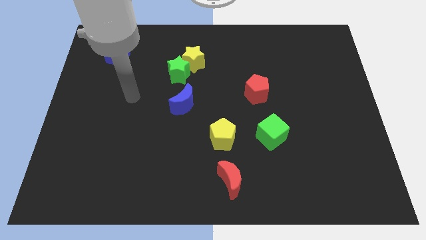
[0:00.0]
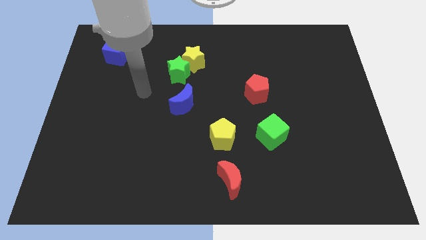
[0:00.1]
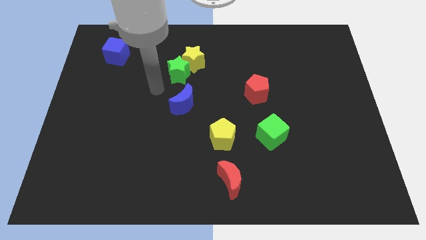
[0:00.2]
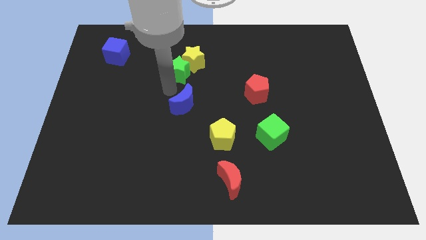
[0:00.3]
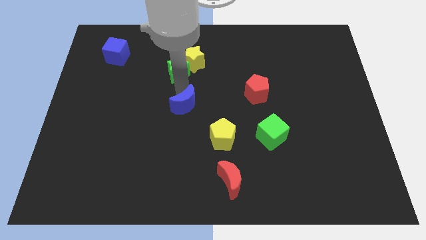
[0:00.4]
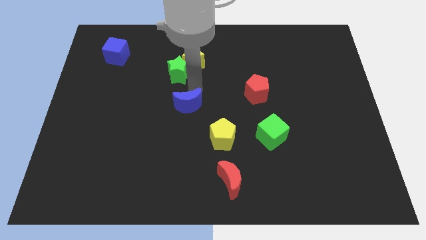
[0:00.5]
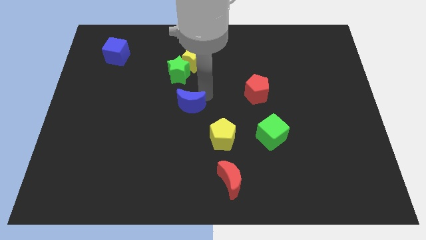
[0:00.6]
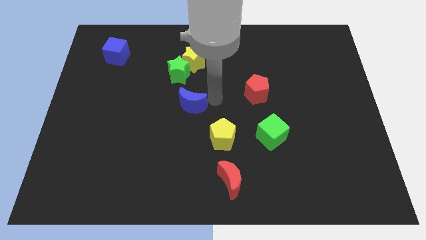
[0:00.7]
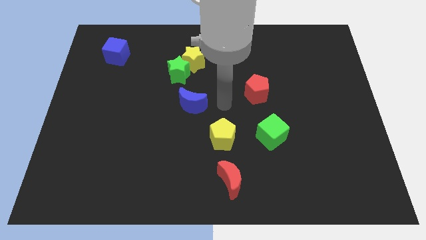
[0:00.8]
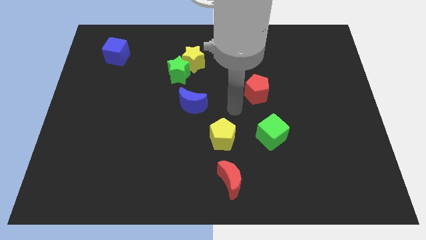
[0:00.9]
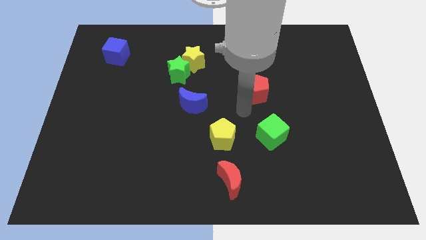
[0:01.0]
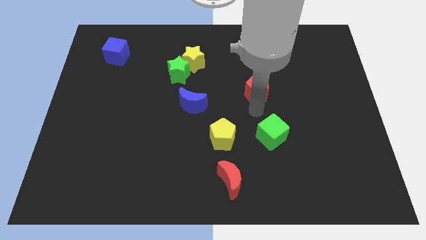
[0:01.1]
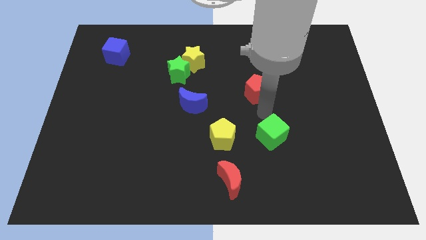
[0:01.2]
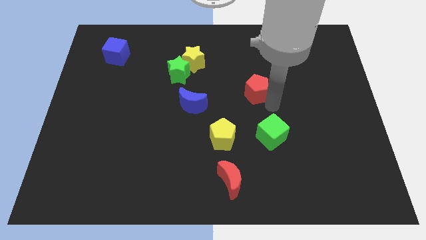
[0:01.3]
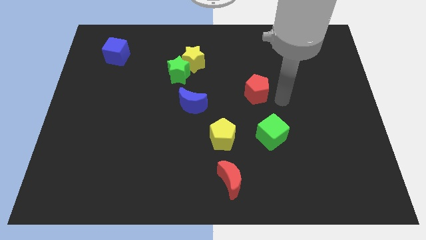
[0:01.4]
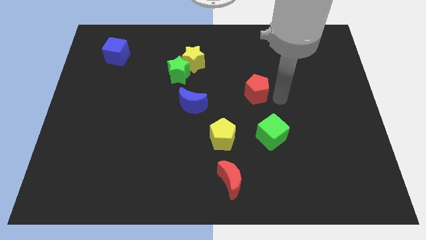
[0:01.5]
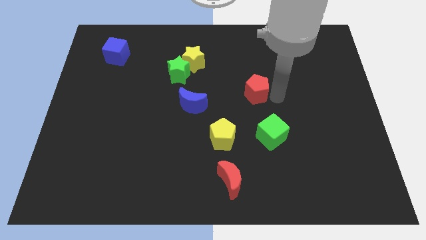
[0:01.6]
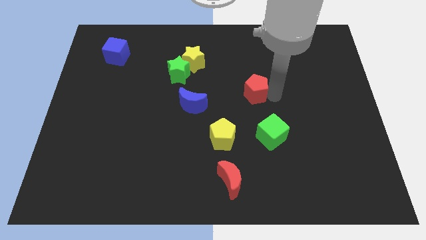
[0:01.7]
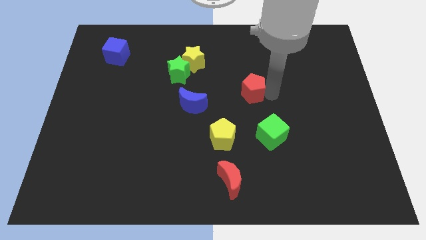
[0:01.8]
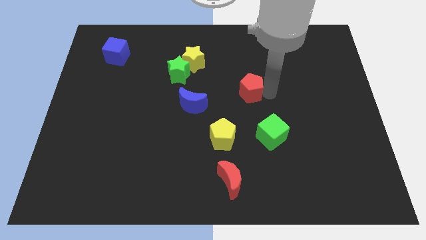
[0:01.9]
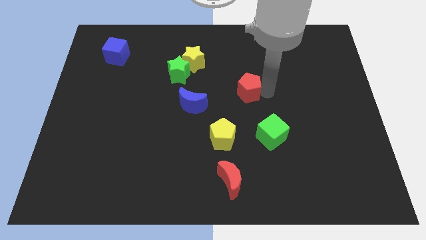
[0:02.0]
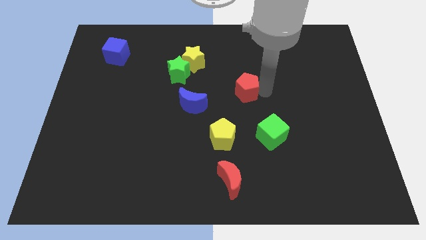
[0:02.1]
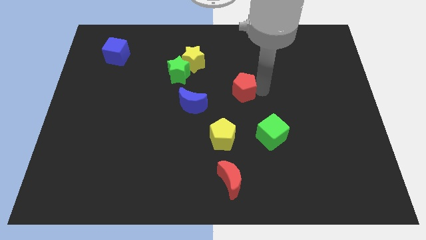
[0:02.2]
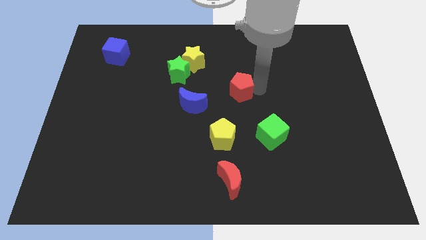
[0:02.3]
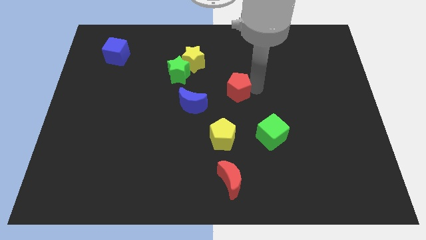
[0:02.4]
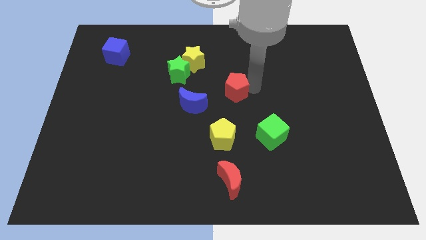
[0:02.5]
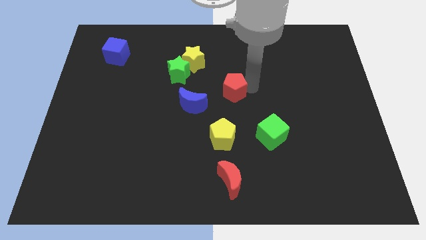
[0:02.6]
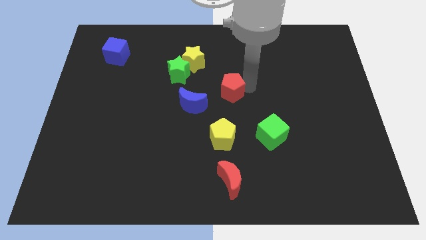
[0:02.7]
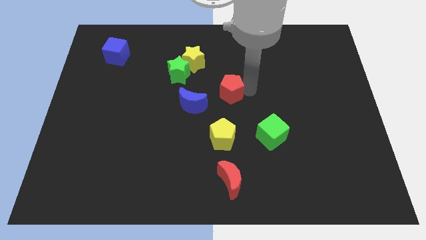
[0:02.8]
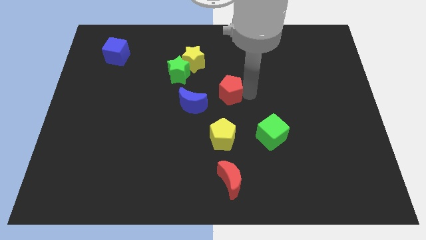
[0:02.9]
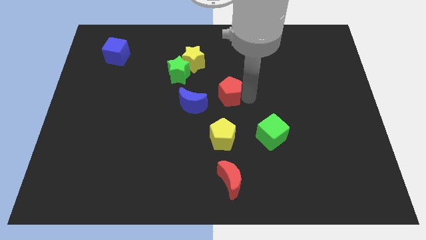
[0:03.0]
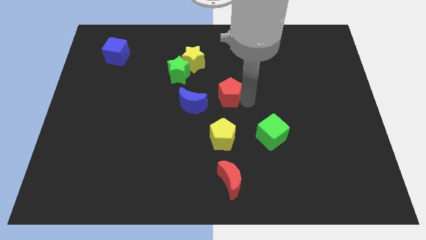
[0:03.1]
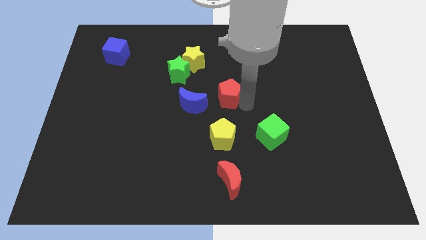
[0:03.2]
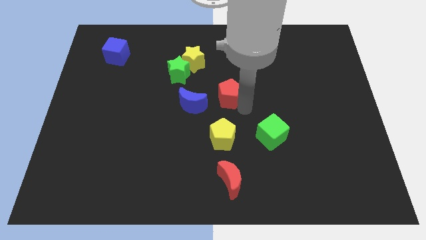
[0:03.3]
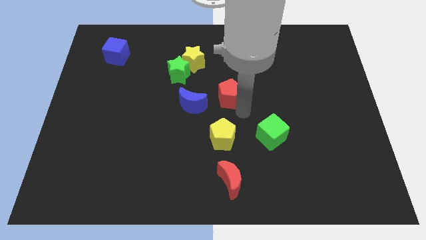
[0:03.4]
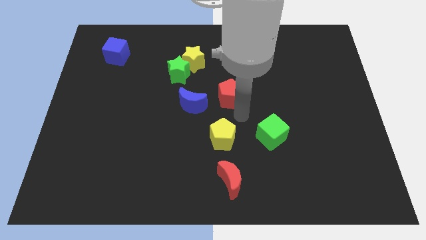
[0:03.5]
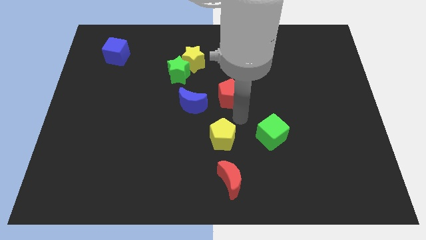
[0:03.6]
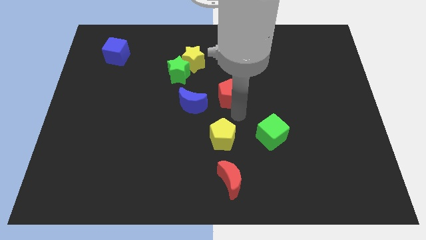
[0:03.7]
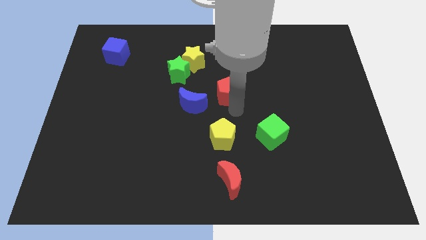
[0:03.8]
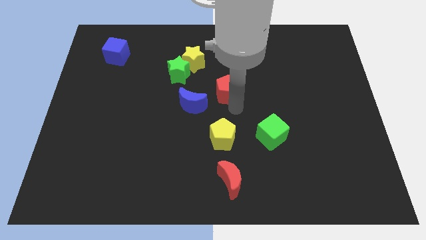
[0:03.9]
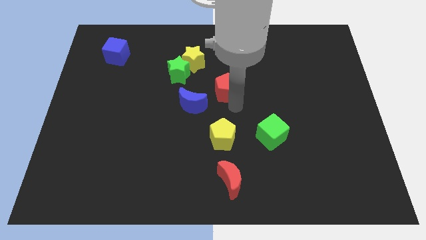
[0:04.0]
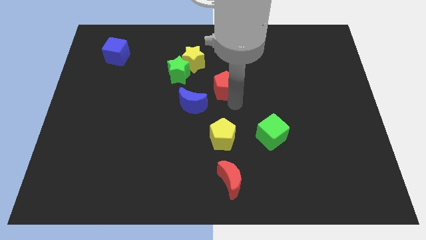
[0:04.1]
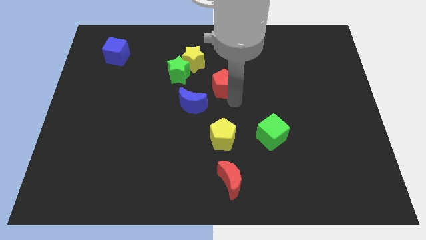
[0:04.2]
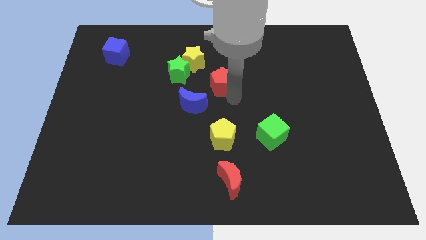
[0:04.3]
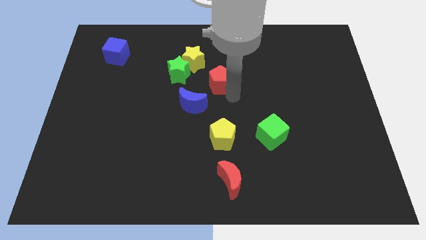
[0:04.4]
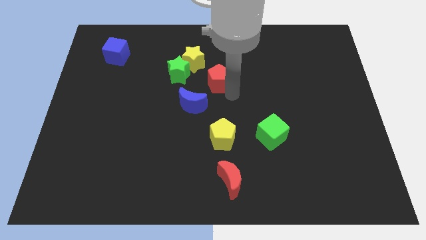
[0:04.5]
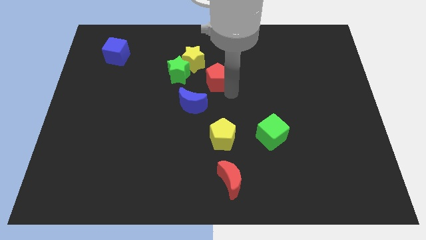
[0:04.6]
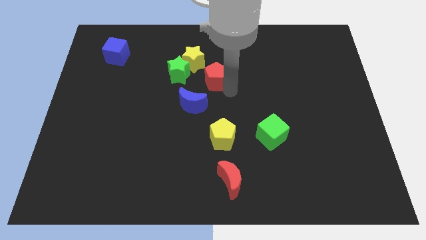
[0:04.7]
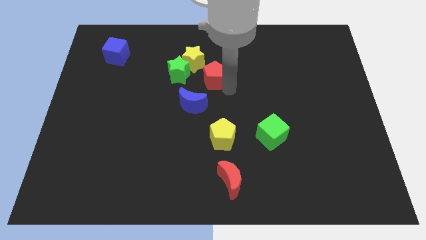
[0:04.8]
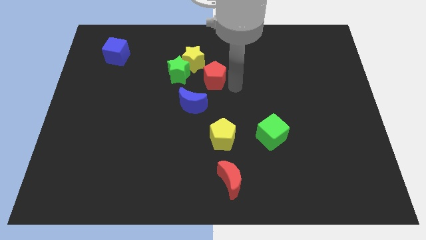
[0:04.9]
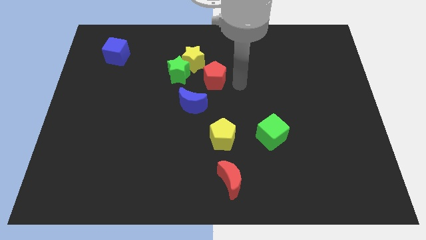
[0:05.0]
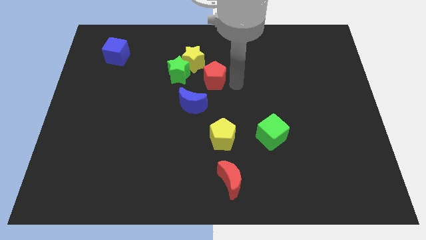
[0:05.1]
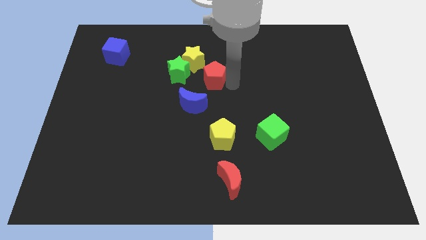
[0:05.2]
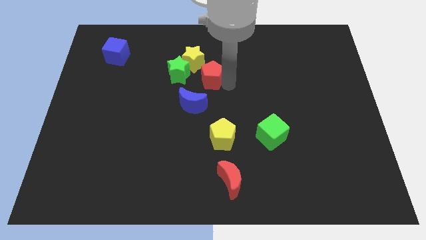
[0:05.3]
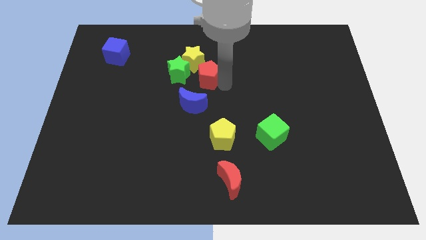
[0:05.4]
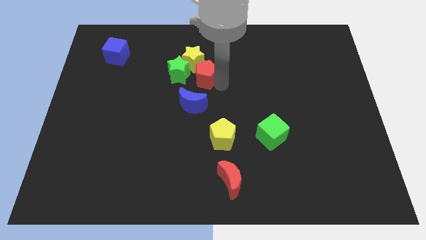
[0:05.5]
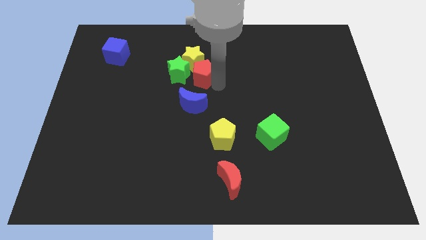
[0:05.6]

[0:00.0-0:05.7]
move the red pentagon next to the green star

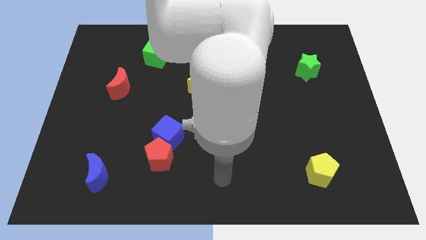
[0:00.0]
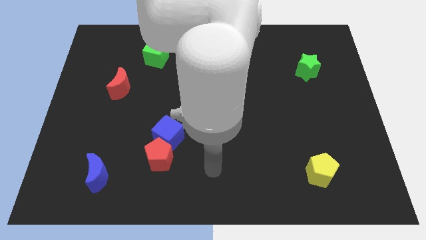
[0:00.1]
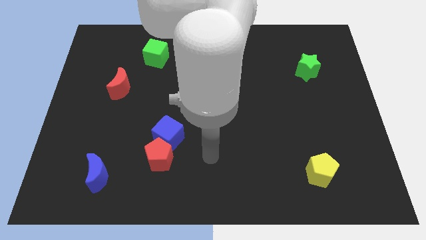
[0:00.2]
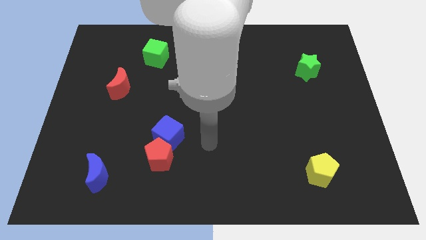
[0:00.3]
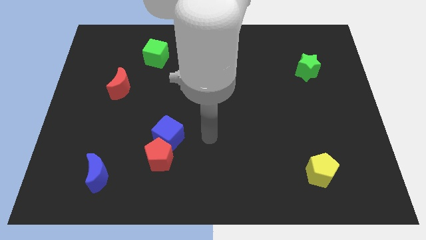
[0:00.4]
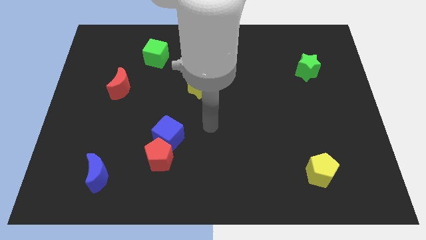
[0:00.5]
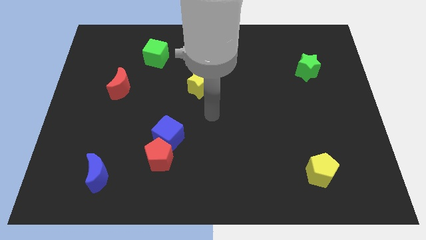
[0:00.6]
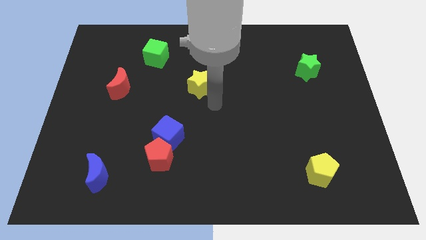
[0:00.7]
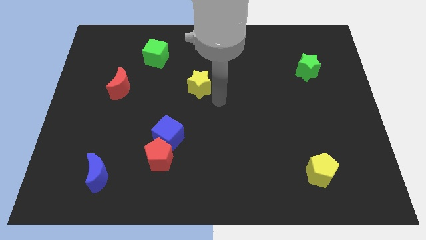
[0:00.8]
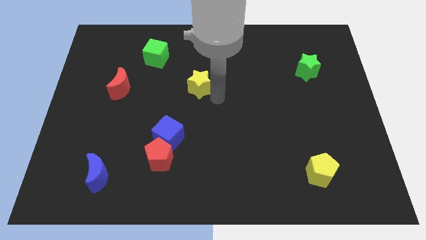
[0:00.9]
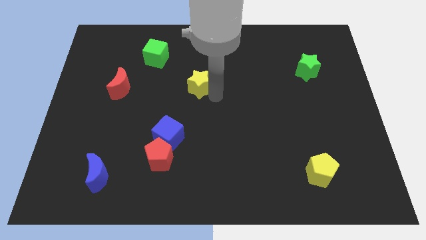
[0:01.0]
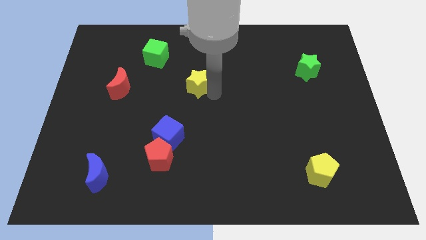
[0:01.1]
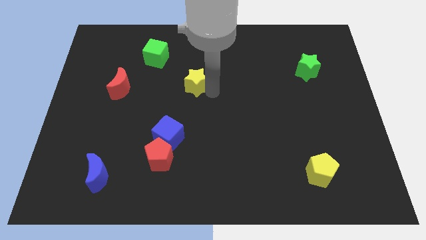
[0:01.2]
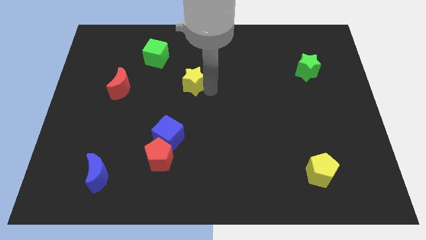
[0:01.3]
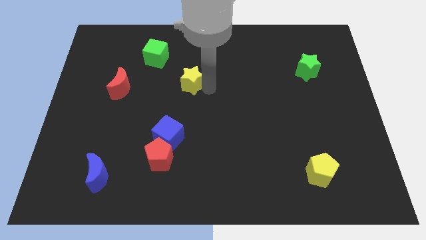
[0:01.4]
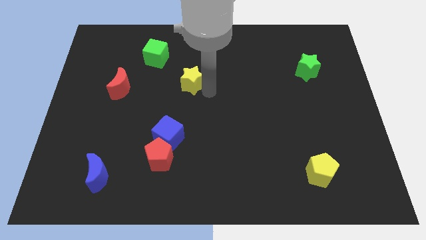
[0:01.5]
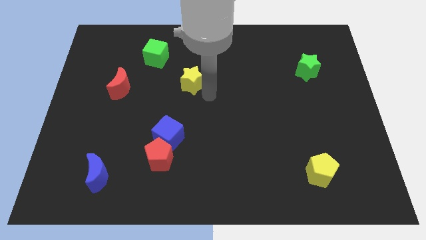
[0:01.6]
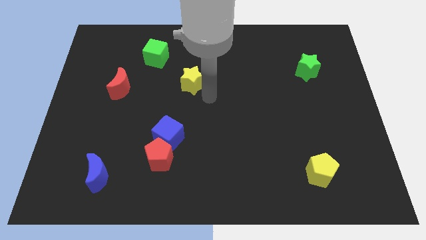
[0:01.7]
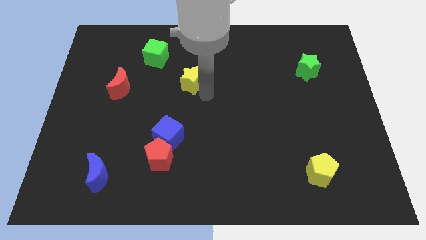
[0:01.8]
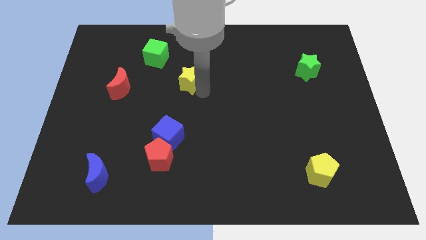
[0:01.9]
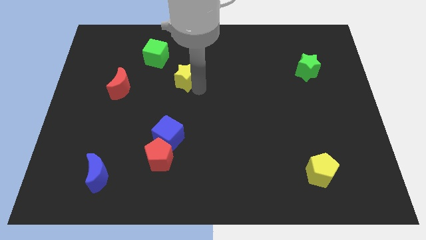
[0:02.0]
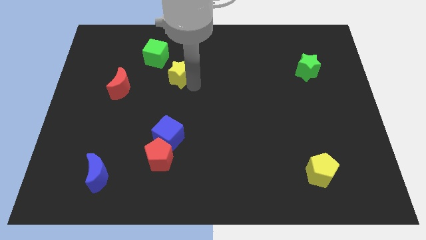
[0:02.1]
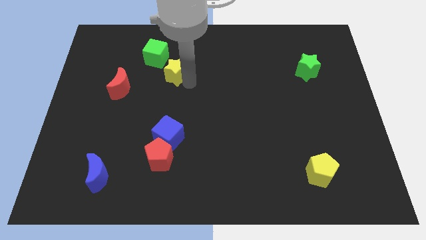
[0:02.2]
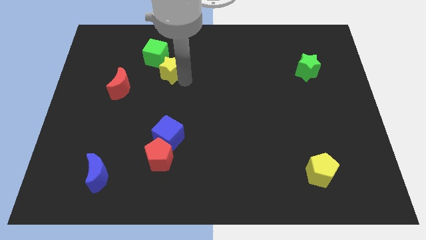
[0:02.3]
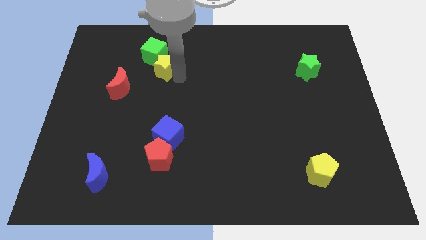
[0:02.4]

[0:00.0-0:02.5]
move the yellow star close to the green cube
